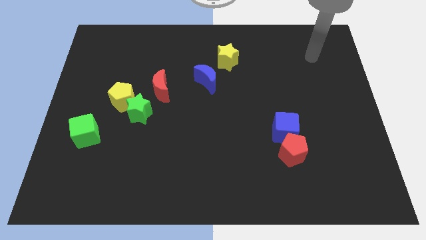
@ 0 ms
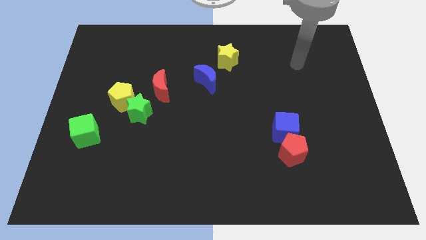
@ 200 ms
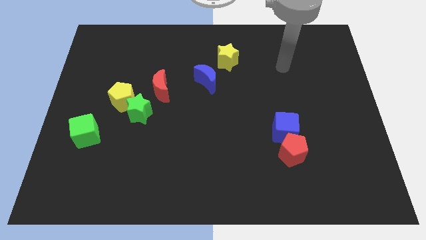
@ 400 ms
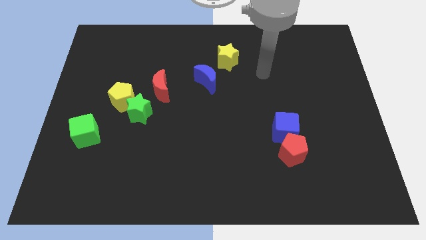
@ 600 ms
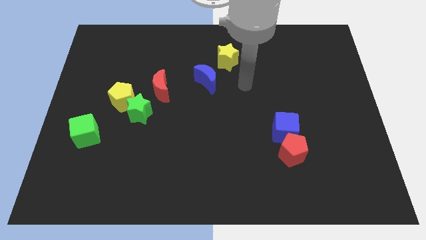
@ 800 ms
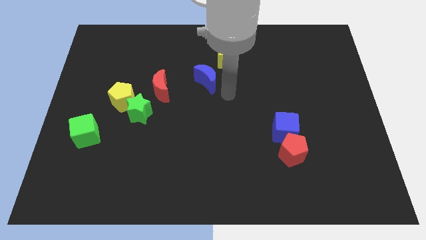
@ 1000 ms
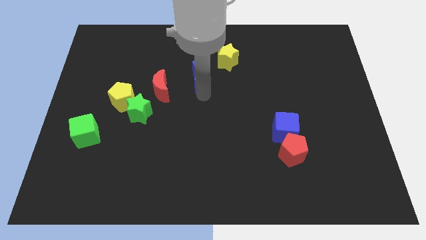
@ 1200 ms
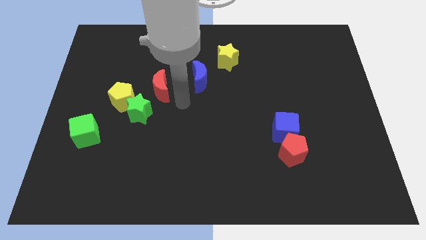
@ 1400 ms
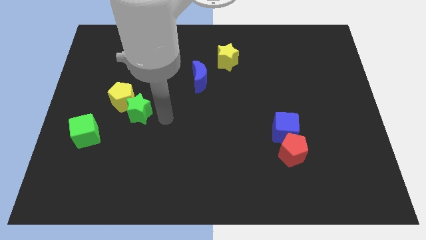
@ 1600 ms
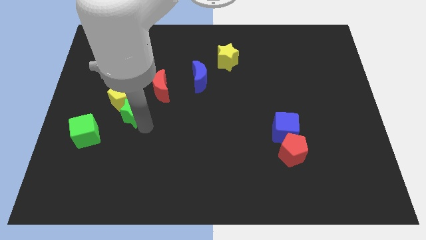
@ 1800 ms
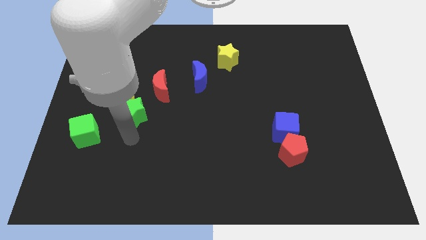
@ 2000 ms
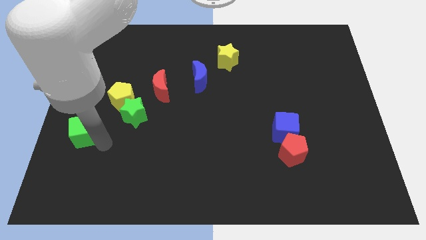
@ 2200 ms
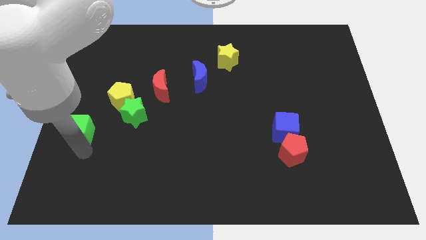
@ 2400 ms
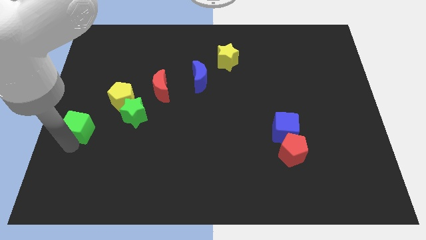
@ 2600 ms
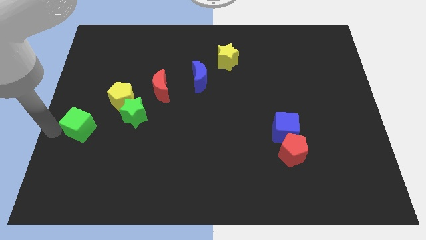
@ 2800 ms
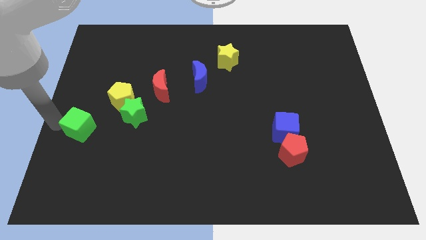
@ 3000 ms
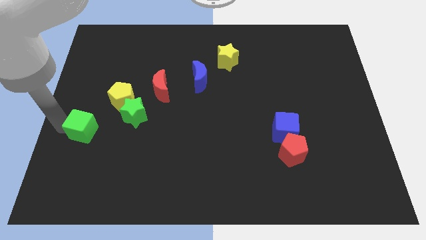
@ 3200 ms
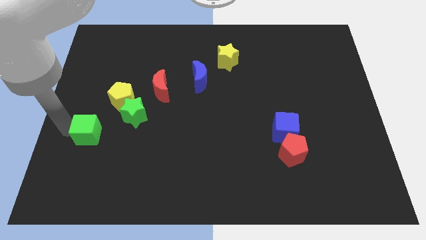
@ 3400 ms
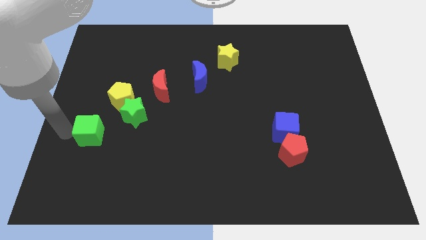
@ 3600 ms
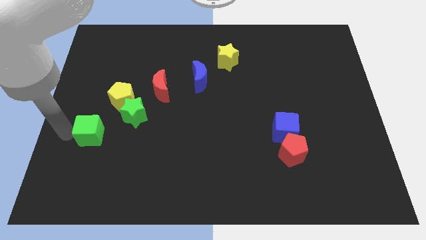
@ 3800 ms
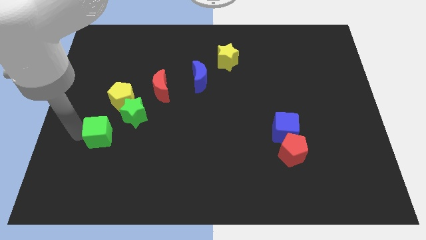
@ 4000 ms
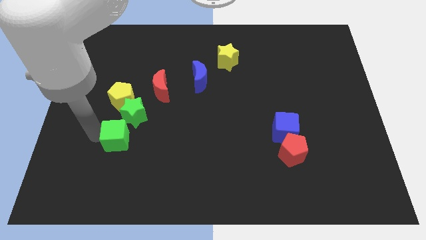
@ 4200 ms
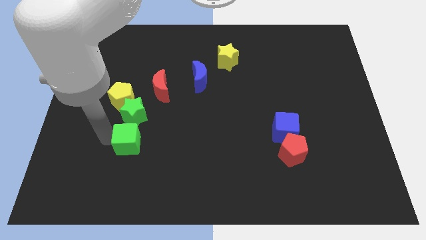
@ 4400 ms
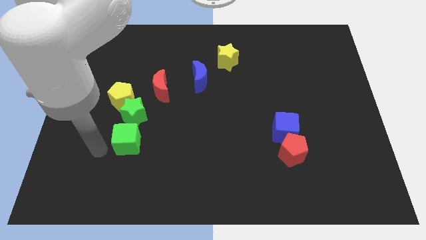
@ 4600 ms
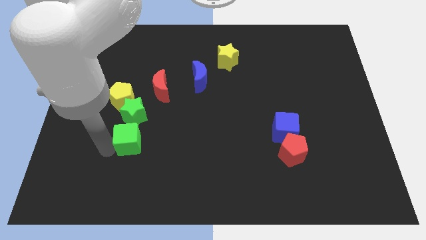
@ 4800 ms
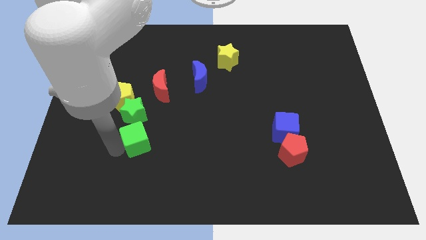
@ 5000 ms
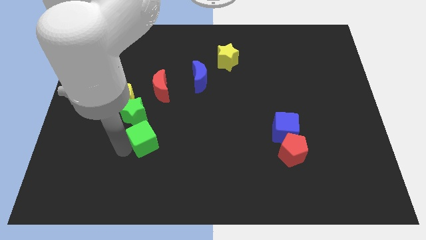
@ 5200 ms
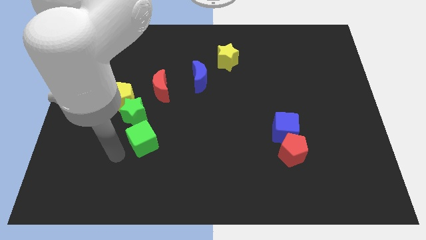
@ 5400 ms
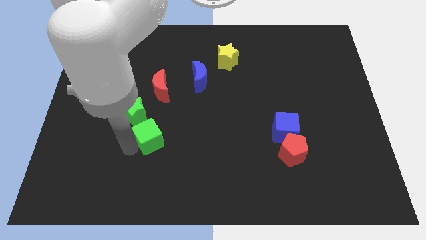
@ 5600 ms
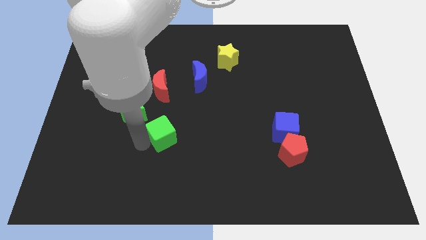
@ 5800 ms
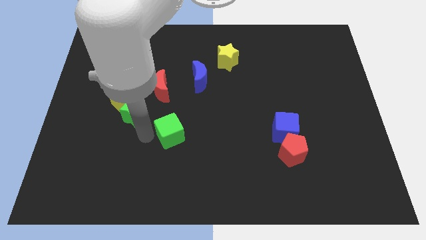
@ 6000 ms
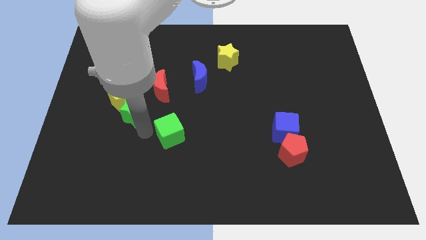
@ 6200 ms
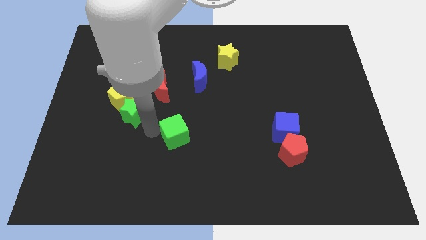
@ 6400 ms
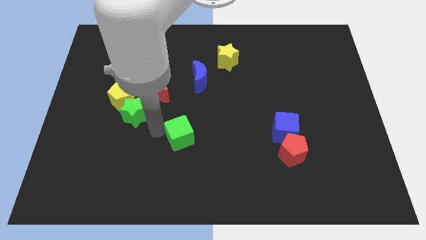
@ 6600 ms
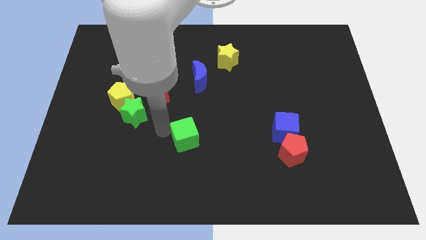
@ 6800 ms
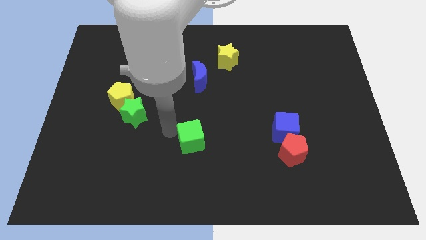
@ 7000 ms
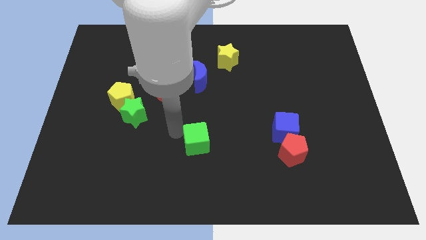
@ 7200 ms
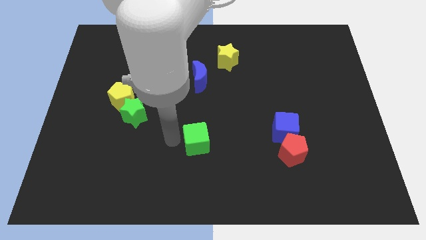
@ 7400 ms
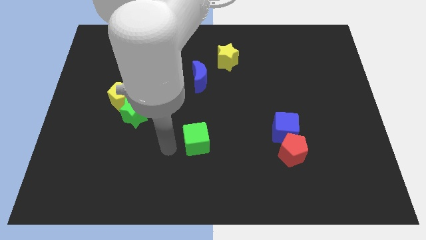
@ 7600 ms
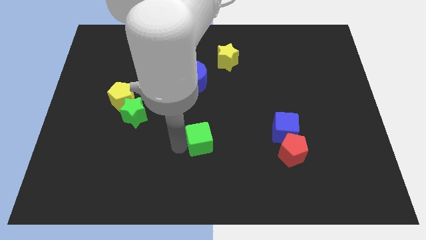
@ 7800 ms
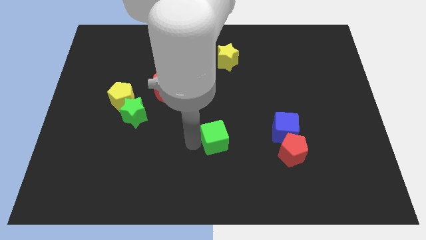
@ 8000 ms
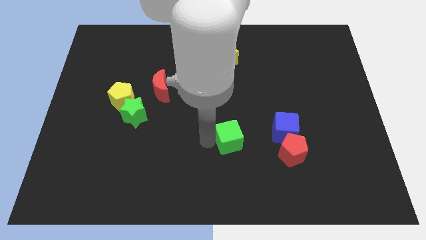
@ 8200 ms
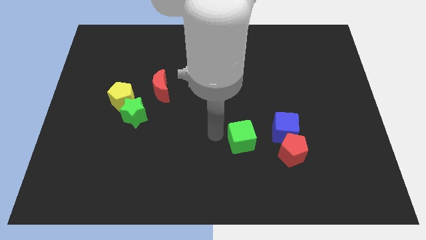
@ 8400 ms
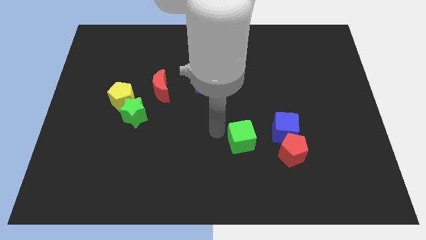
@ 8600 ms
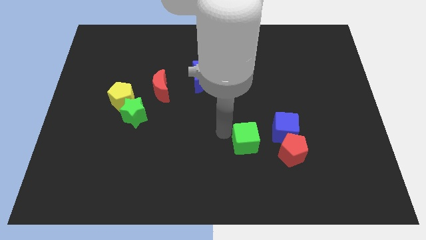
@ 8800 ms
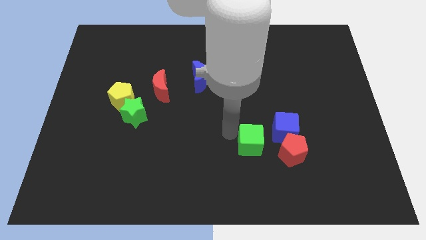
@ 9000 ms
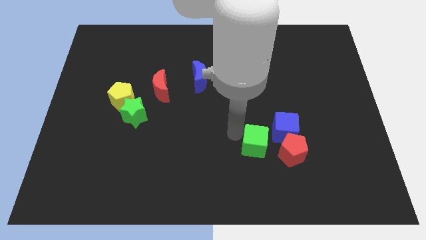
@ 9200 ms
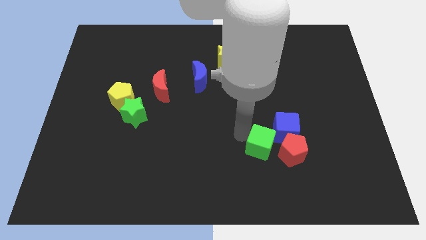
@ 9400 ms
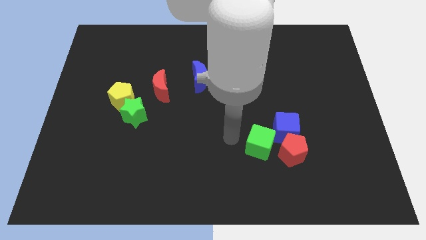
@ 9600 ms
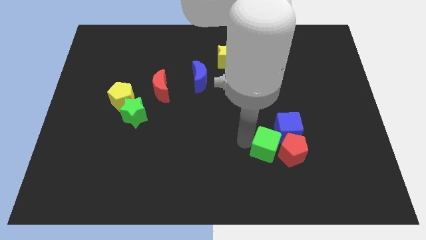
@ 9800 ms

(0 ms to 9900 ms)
move the green cube close to the red pentagon

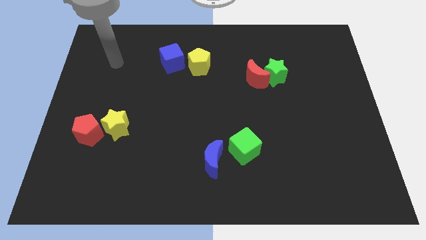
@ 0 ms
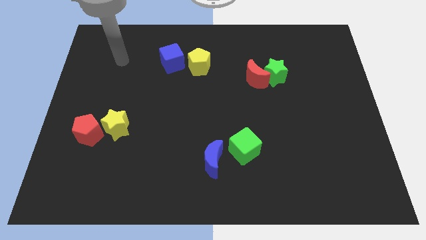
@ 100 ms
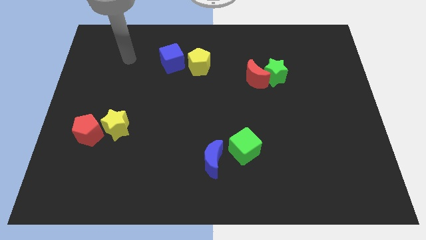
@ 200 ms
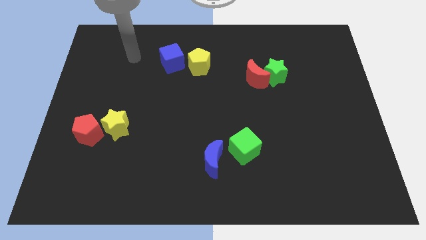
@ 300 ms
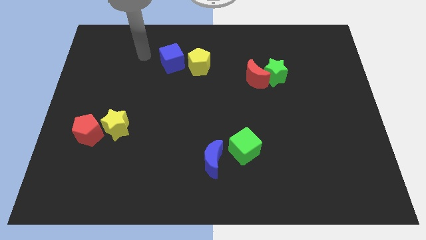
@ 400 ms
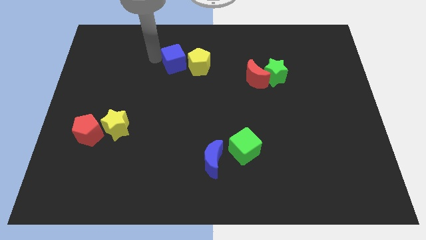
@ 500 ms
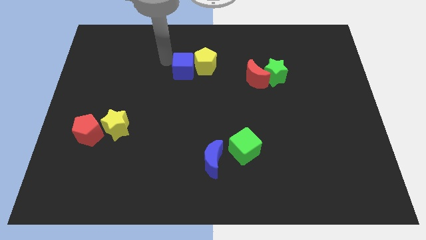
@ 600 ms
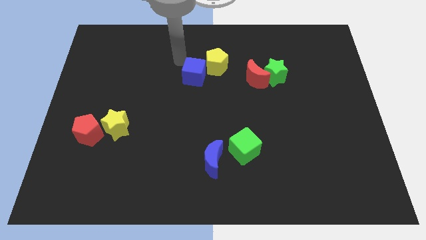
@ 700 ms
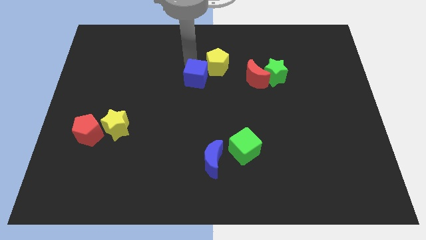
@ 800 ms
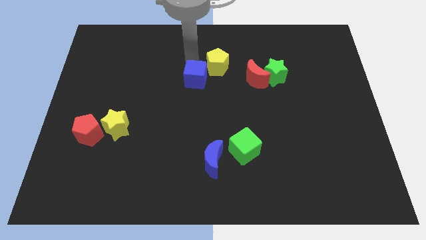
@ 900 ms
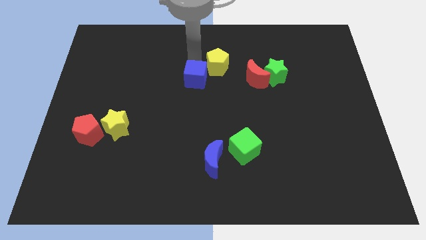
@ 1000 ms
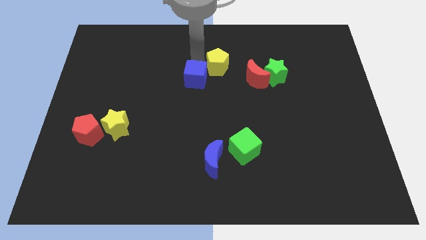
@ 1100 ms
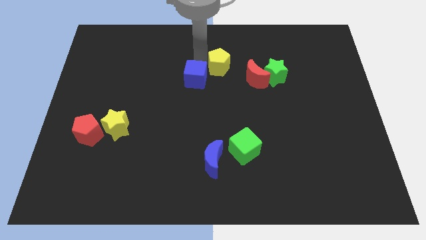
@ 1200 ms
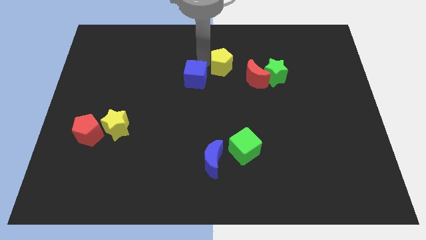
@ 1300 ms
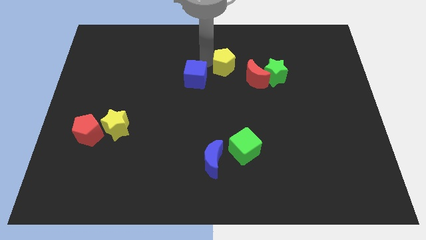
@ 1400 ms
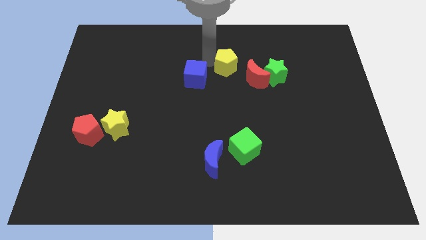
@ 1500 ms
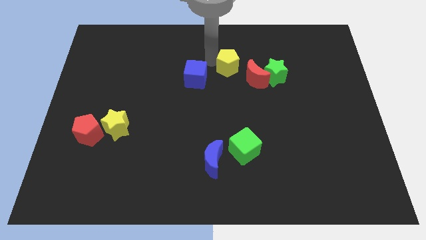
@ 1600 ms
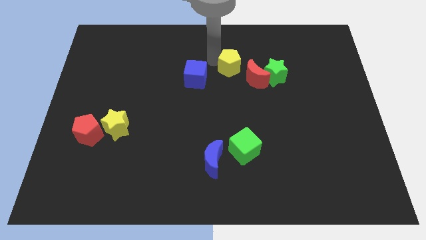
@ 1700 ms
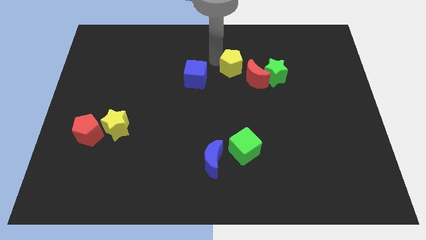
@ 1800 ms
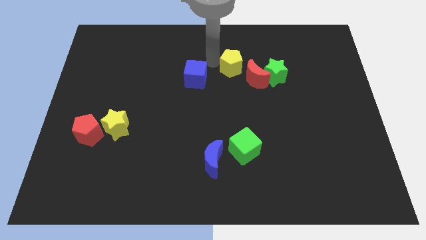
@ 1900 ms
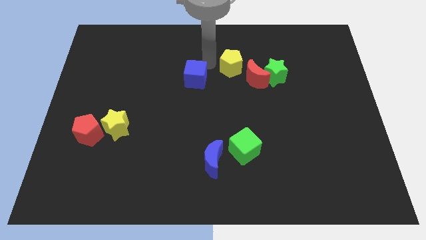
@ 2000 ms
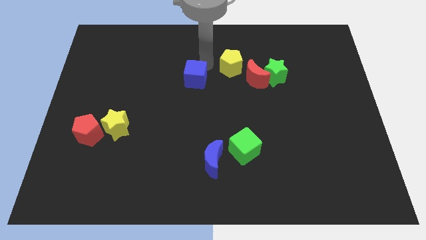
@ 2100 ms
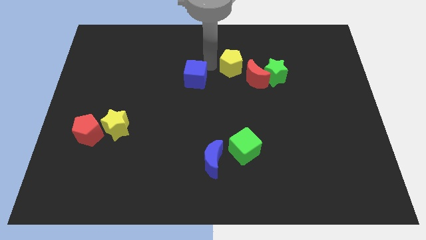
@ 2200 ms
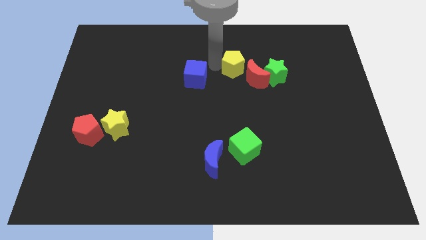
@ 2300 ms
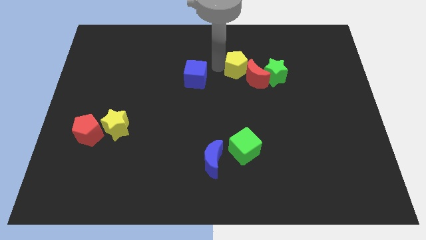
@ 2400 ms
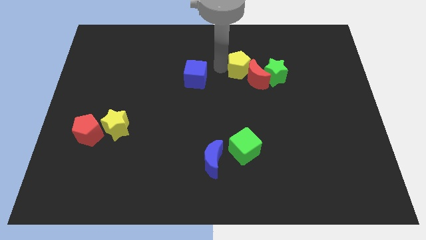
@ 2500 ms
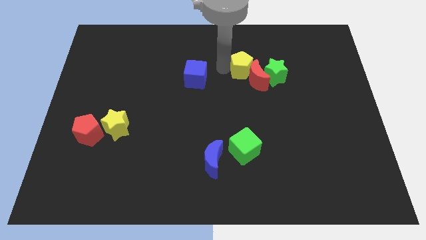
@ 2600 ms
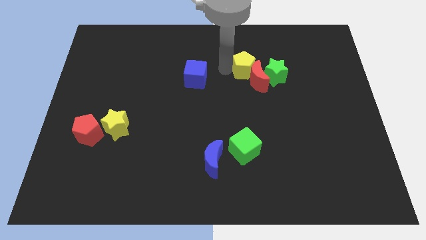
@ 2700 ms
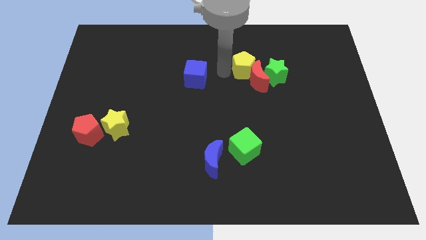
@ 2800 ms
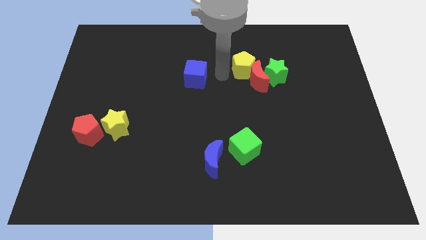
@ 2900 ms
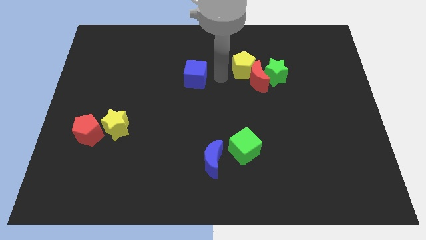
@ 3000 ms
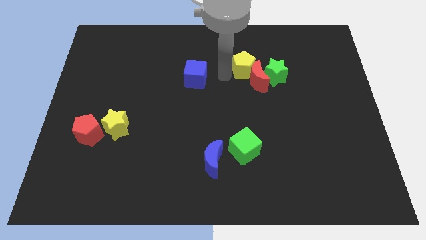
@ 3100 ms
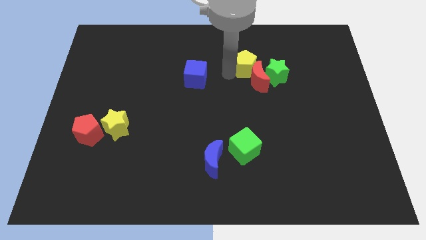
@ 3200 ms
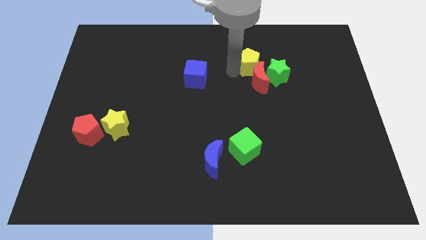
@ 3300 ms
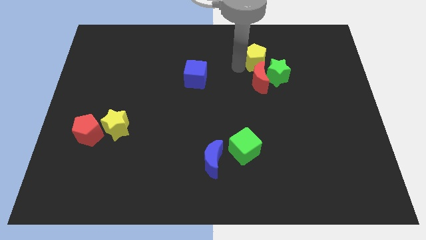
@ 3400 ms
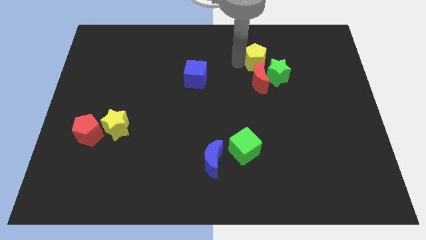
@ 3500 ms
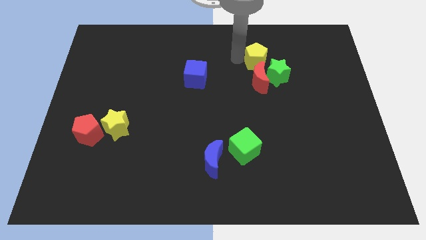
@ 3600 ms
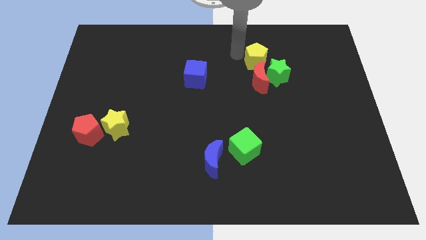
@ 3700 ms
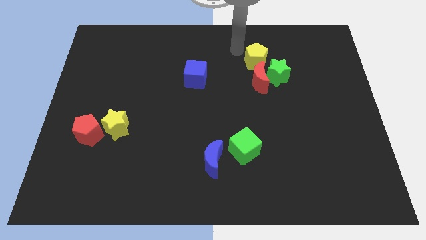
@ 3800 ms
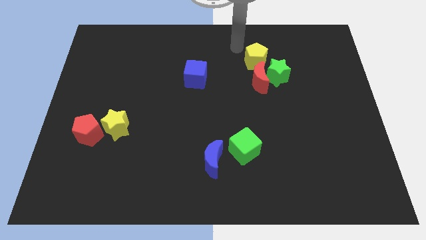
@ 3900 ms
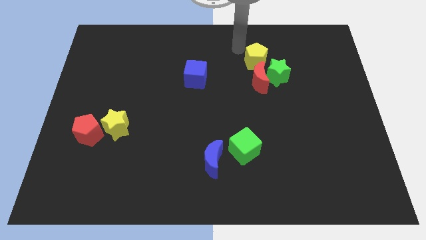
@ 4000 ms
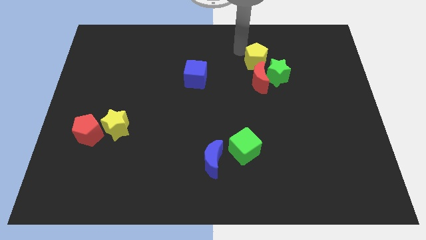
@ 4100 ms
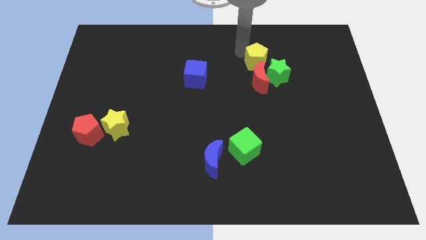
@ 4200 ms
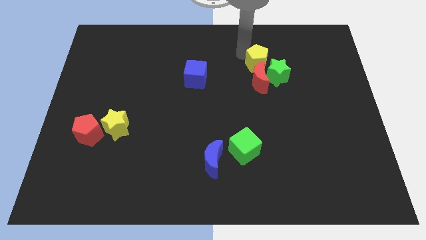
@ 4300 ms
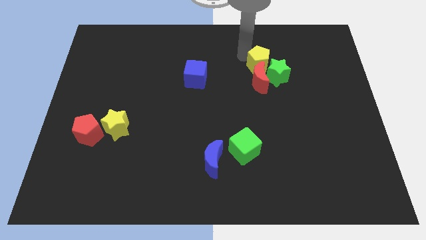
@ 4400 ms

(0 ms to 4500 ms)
slide the yellow pentagon to the green star
